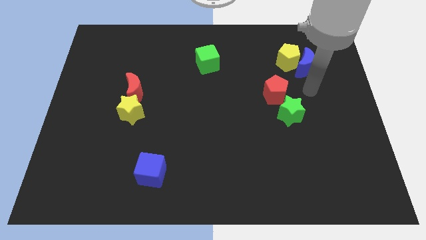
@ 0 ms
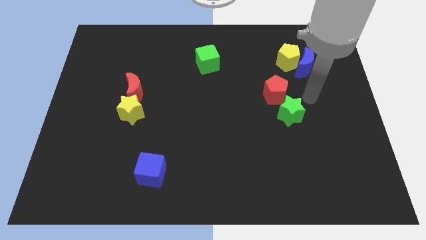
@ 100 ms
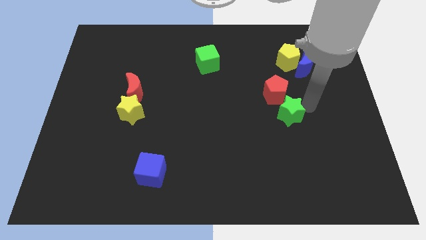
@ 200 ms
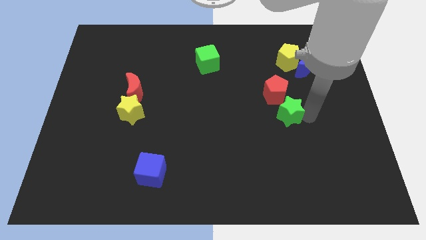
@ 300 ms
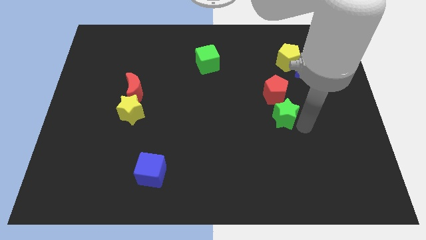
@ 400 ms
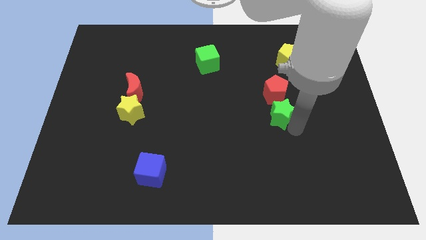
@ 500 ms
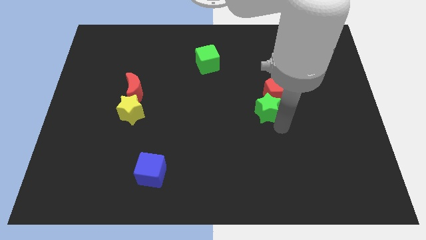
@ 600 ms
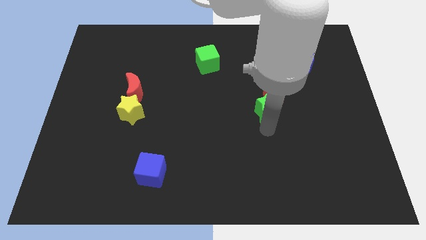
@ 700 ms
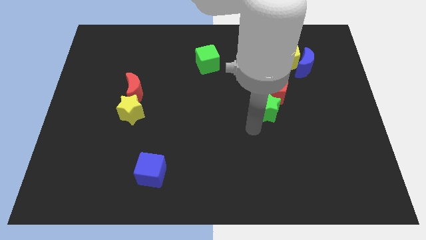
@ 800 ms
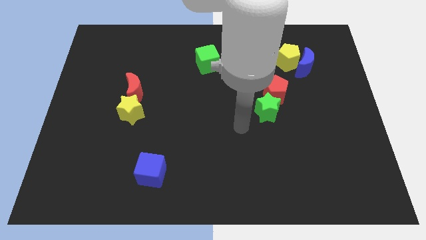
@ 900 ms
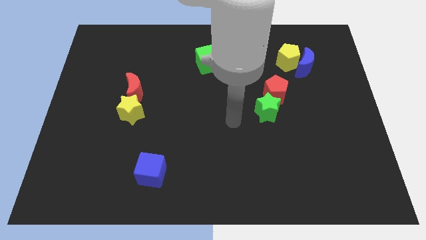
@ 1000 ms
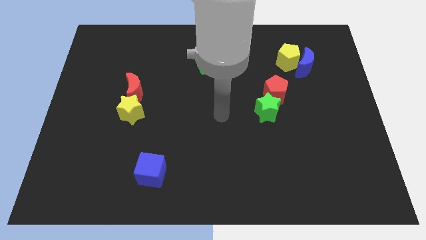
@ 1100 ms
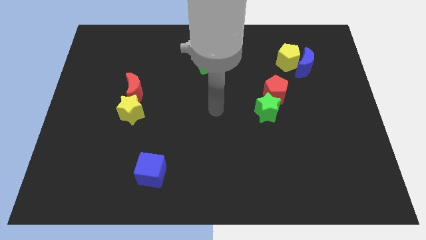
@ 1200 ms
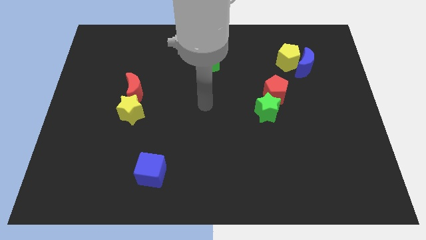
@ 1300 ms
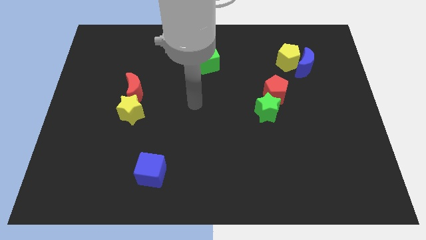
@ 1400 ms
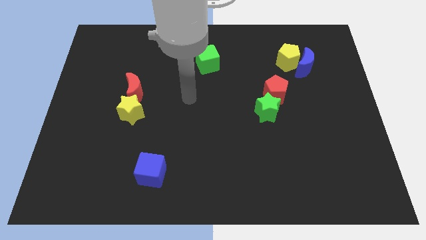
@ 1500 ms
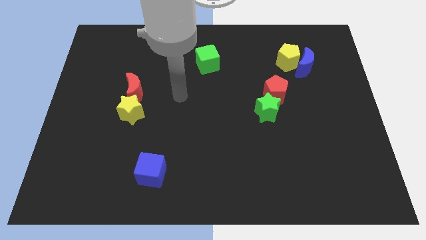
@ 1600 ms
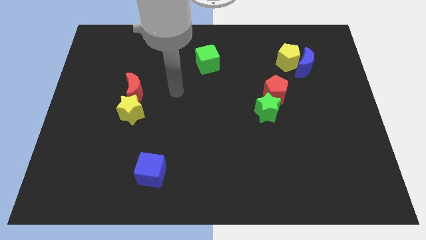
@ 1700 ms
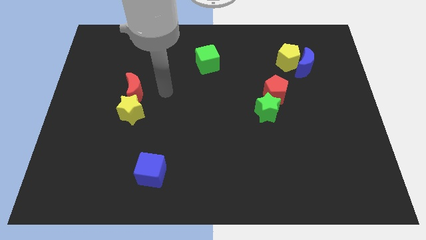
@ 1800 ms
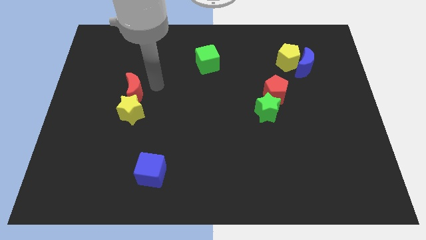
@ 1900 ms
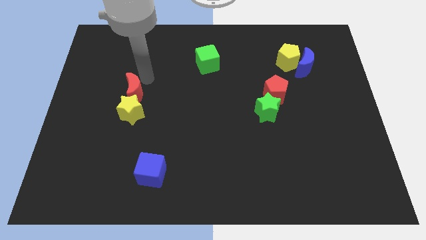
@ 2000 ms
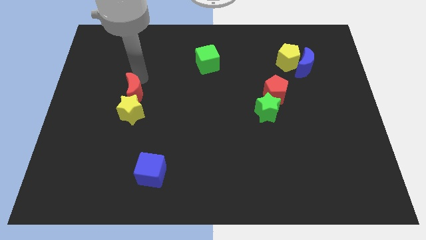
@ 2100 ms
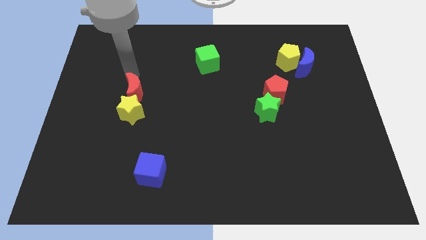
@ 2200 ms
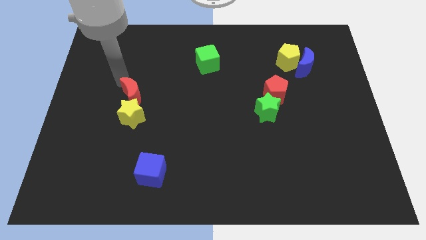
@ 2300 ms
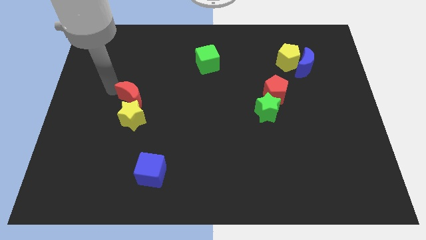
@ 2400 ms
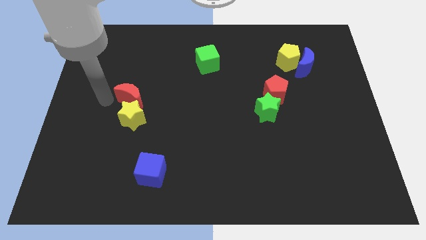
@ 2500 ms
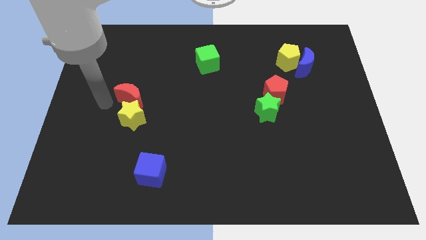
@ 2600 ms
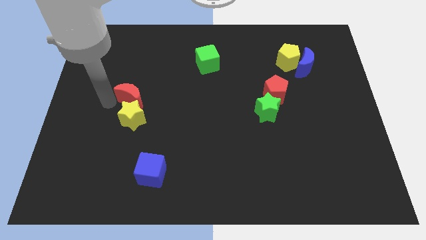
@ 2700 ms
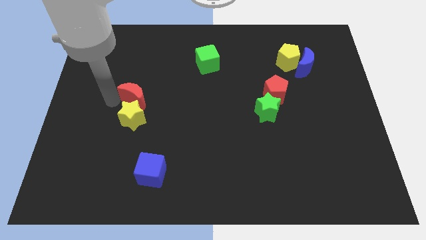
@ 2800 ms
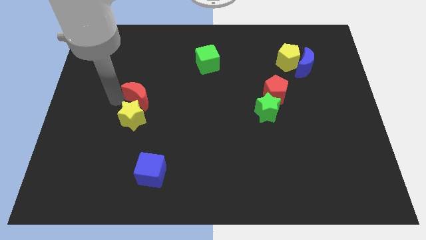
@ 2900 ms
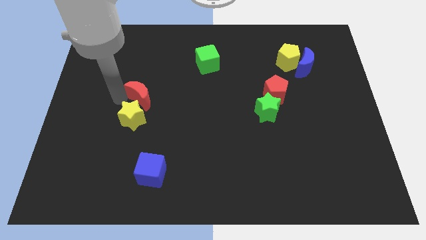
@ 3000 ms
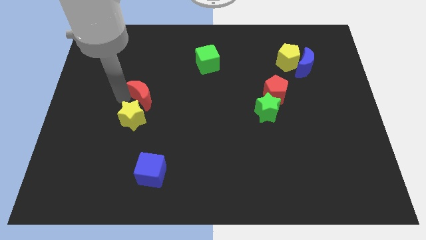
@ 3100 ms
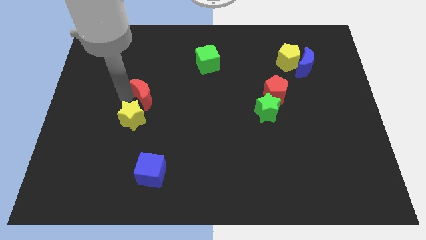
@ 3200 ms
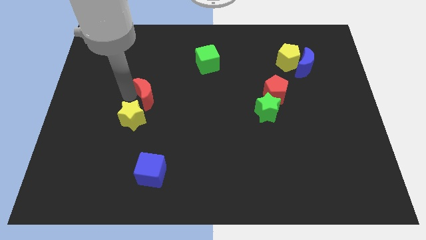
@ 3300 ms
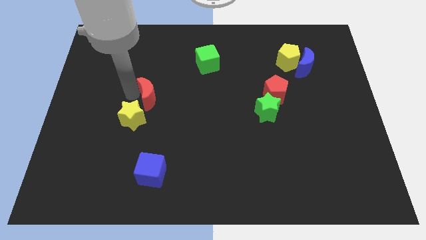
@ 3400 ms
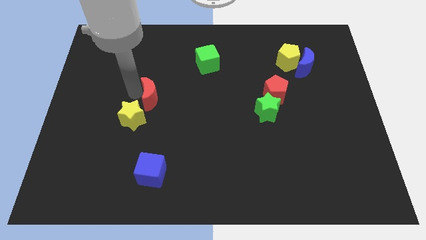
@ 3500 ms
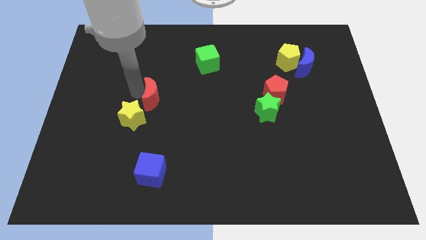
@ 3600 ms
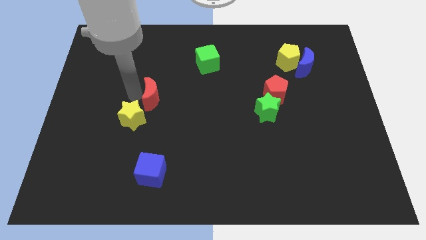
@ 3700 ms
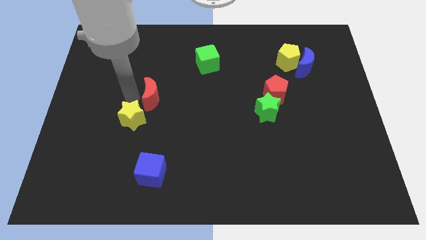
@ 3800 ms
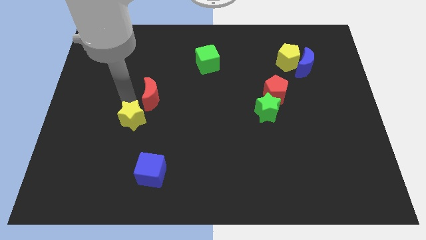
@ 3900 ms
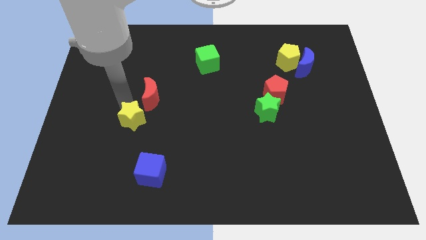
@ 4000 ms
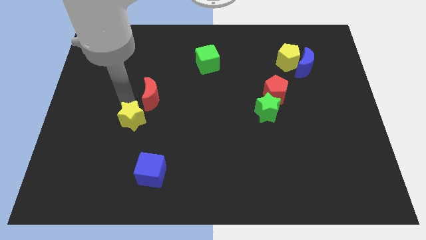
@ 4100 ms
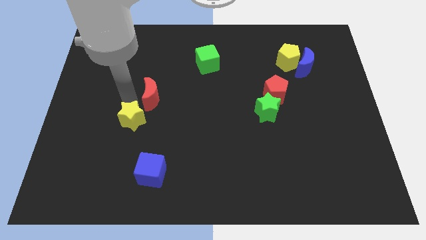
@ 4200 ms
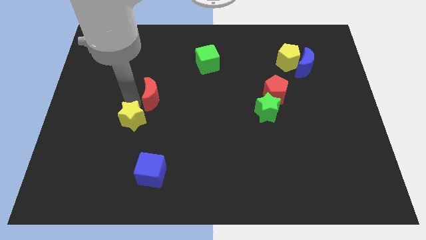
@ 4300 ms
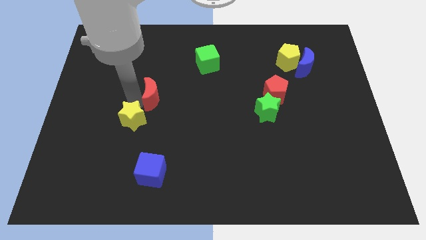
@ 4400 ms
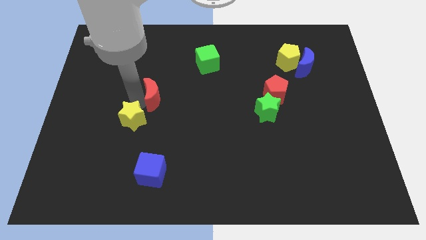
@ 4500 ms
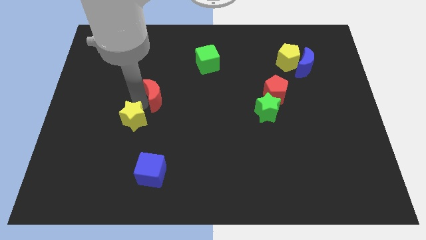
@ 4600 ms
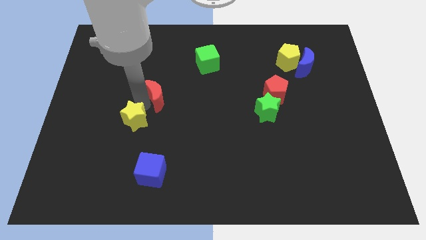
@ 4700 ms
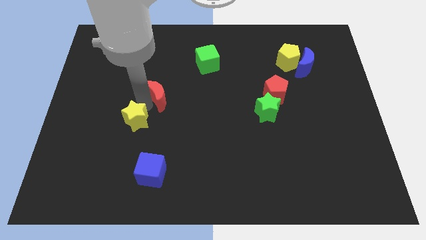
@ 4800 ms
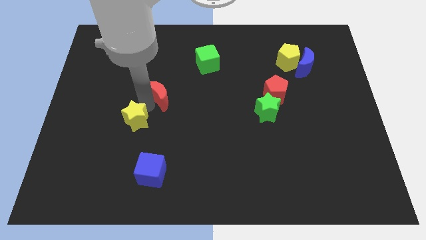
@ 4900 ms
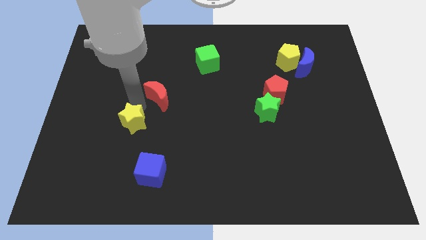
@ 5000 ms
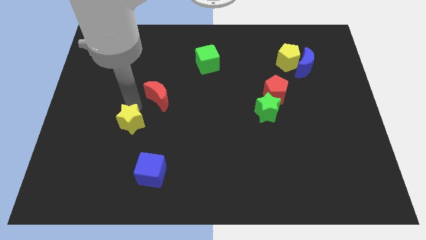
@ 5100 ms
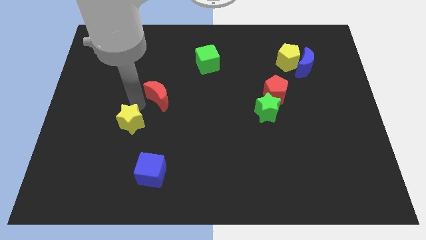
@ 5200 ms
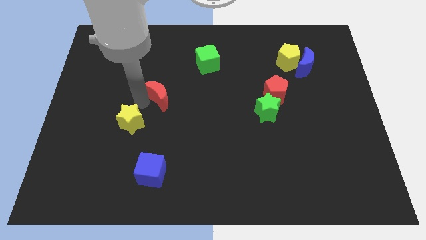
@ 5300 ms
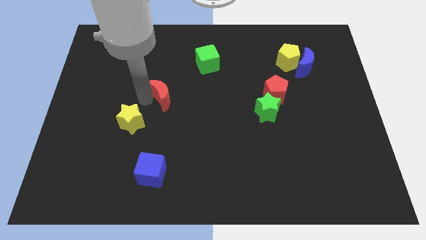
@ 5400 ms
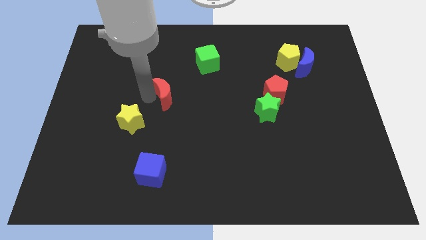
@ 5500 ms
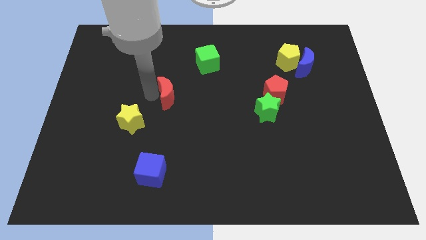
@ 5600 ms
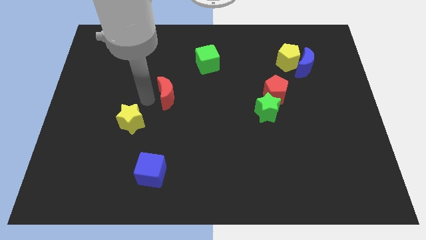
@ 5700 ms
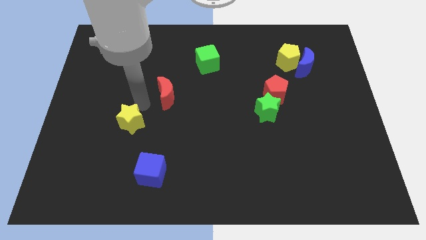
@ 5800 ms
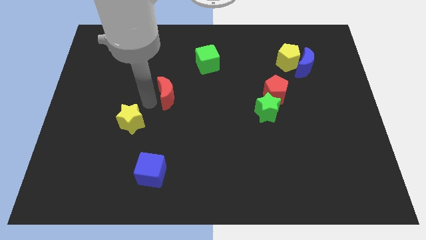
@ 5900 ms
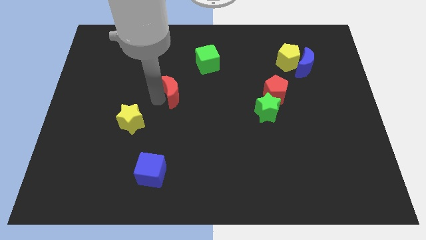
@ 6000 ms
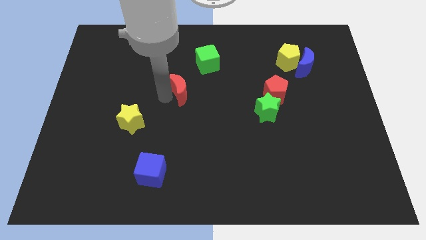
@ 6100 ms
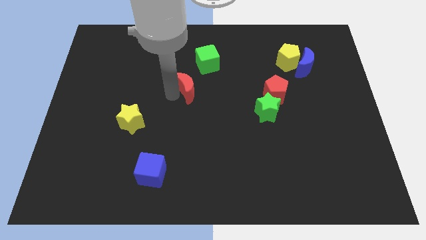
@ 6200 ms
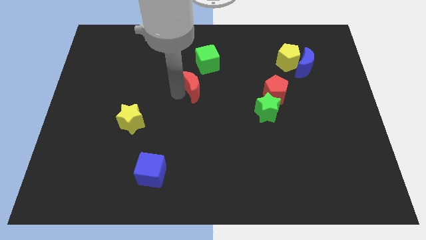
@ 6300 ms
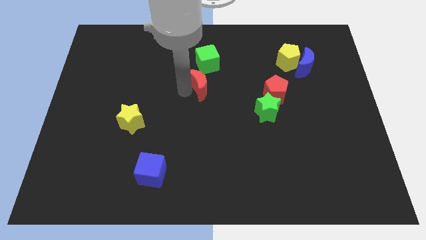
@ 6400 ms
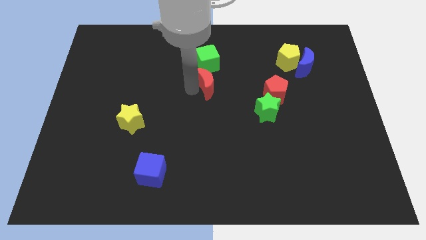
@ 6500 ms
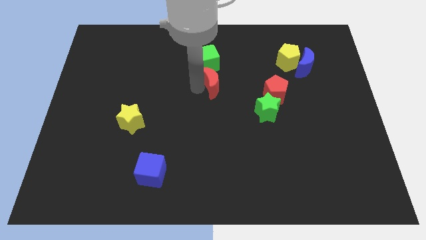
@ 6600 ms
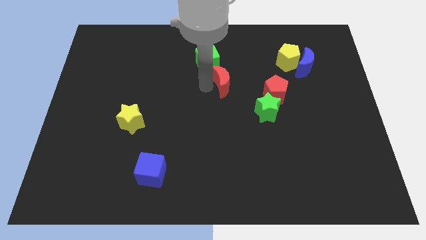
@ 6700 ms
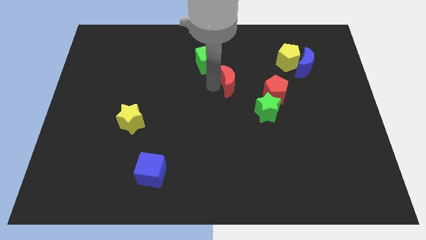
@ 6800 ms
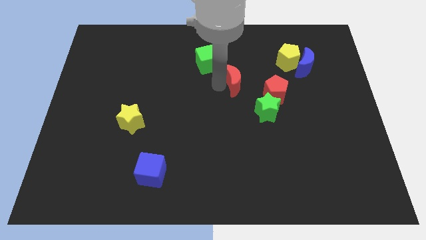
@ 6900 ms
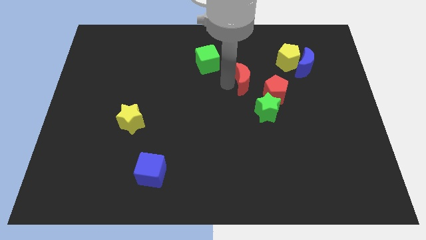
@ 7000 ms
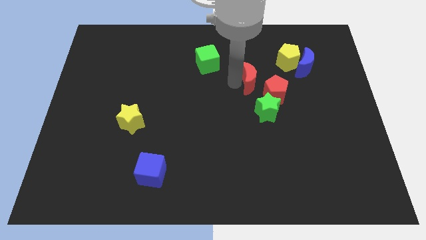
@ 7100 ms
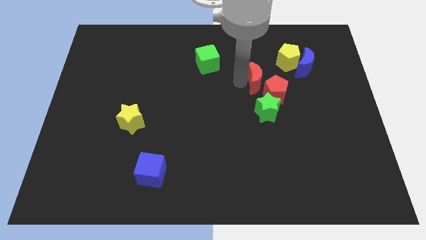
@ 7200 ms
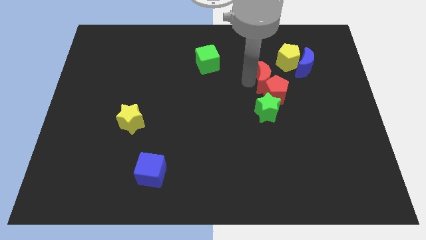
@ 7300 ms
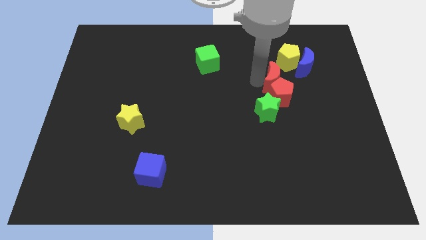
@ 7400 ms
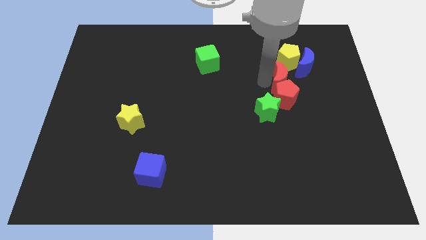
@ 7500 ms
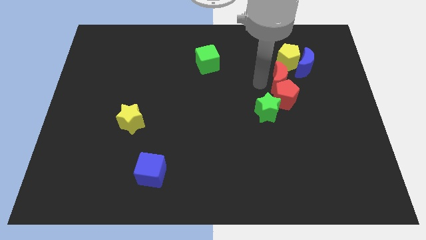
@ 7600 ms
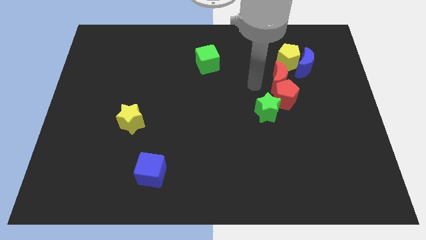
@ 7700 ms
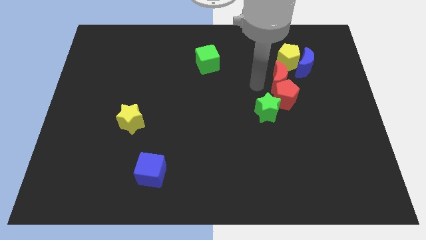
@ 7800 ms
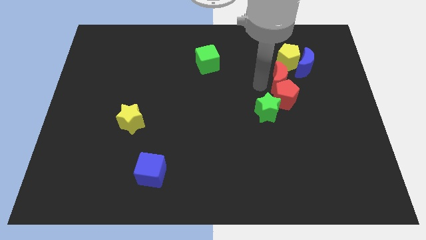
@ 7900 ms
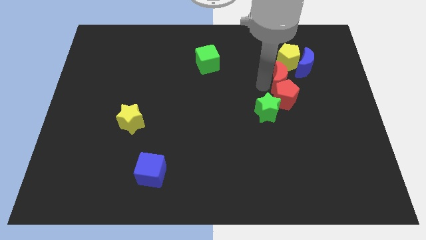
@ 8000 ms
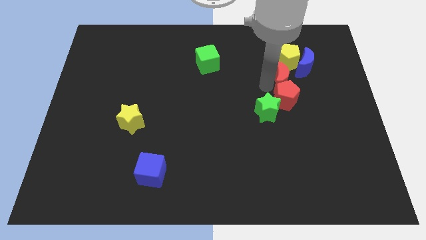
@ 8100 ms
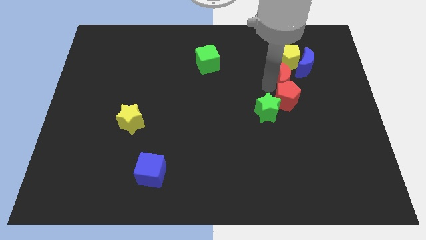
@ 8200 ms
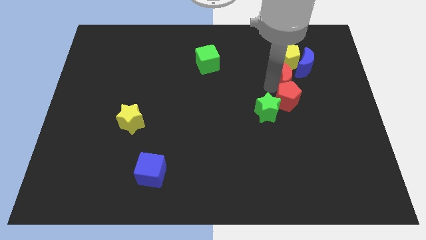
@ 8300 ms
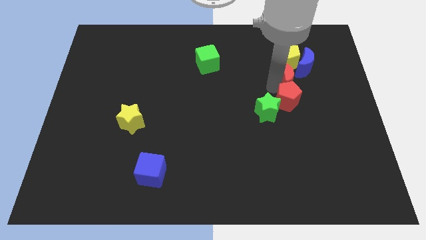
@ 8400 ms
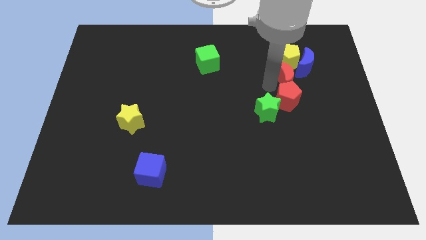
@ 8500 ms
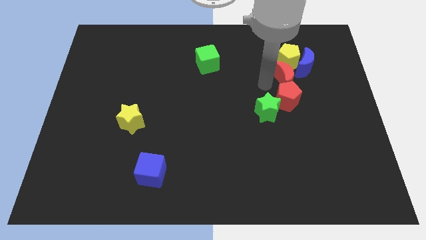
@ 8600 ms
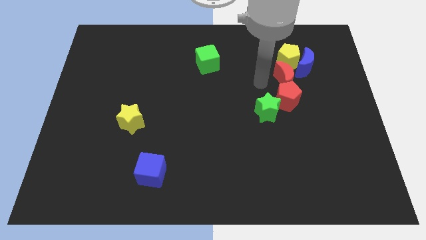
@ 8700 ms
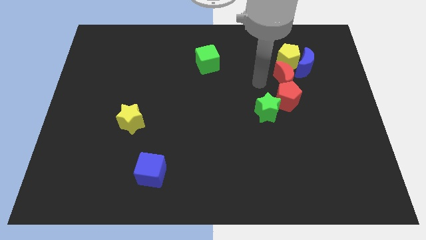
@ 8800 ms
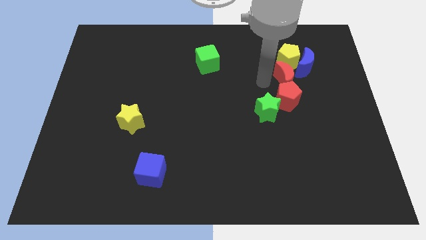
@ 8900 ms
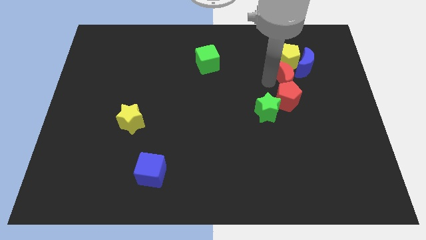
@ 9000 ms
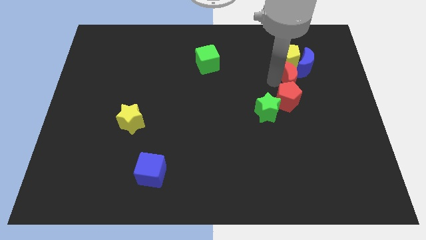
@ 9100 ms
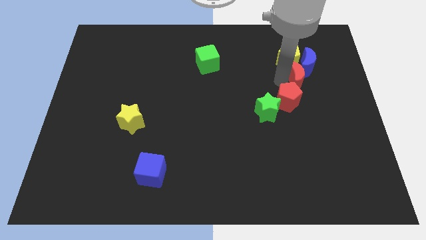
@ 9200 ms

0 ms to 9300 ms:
push the red moon to the bottom right of the yellow pentagon
